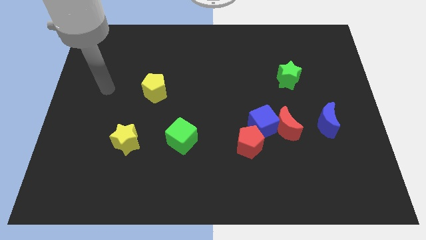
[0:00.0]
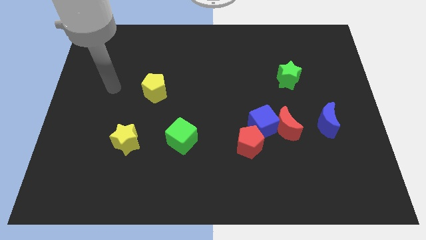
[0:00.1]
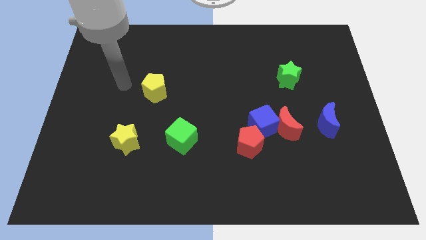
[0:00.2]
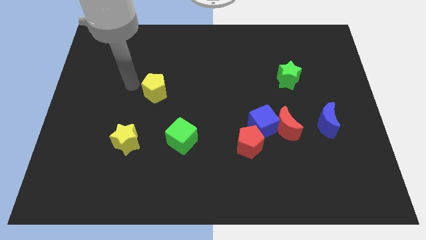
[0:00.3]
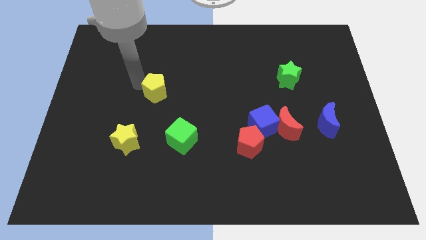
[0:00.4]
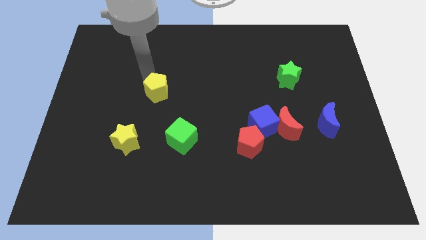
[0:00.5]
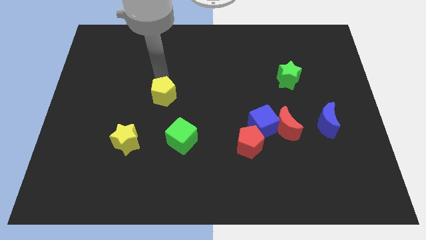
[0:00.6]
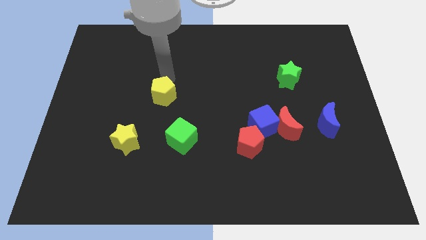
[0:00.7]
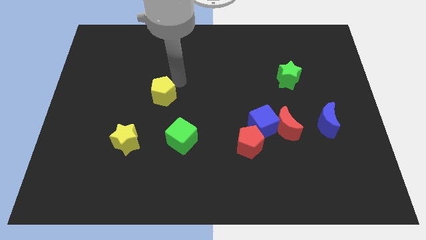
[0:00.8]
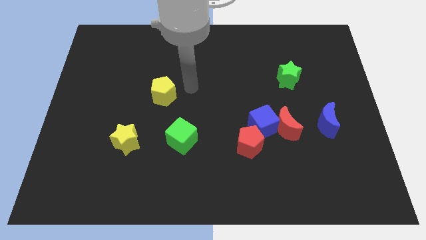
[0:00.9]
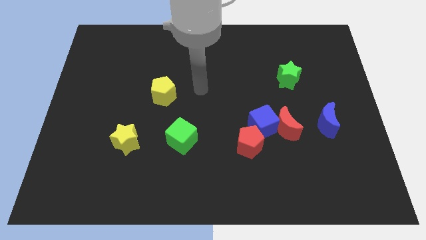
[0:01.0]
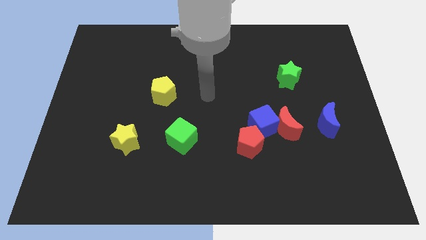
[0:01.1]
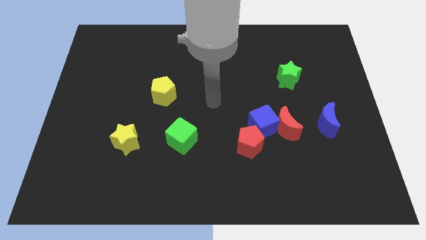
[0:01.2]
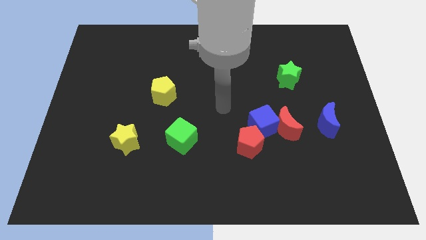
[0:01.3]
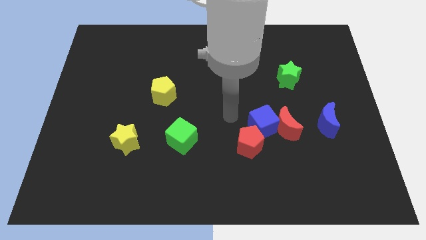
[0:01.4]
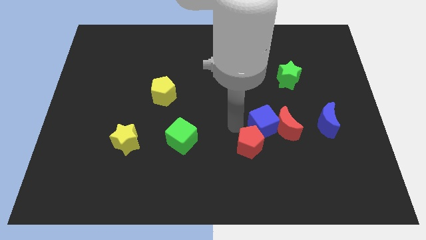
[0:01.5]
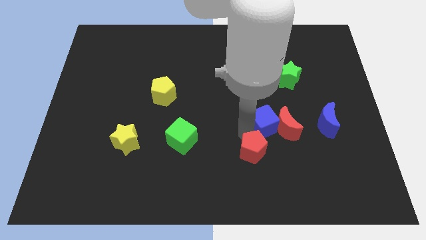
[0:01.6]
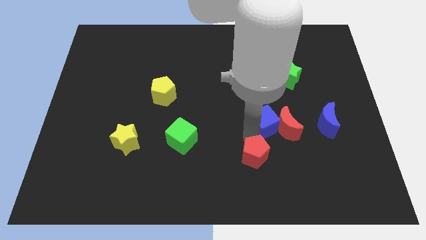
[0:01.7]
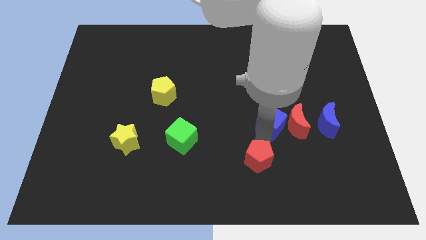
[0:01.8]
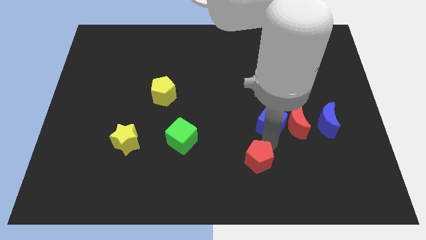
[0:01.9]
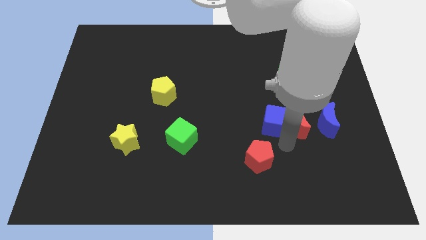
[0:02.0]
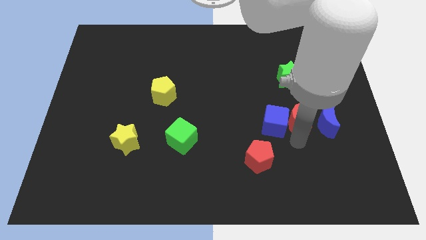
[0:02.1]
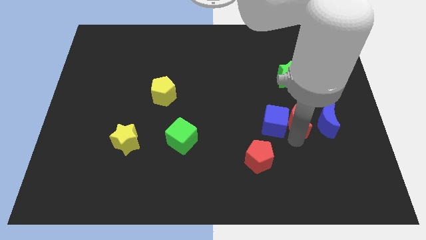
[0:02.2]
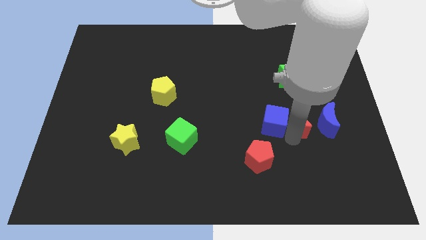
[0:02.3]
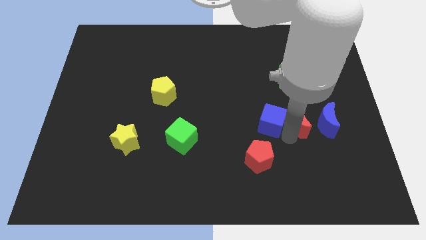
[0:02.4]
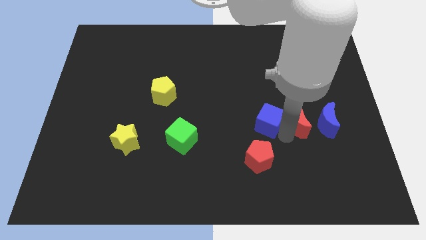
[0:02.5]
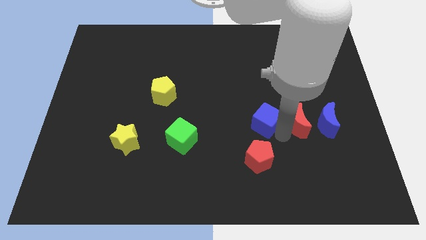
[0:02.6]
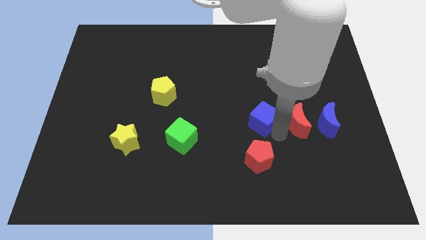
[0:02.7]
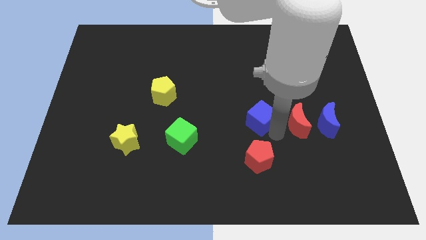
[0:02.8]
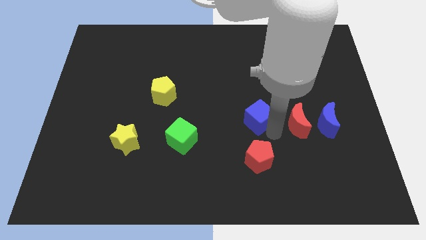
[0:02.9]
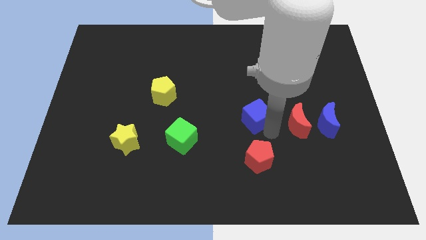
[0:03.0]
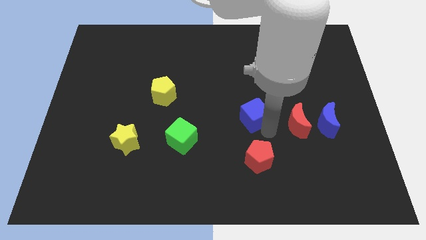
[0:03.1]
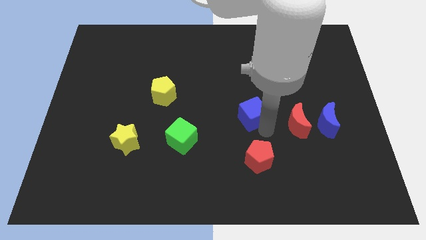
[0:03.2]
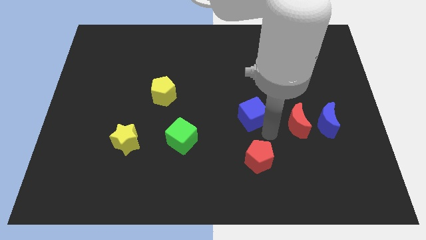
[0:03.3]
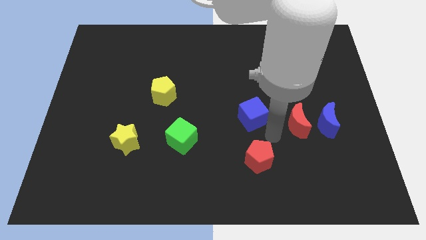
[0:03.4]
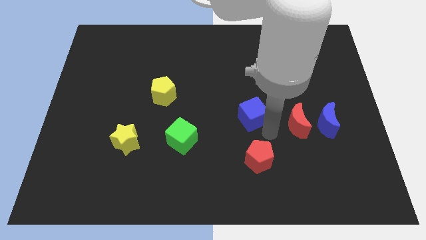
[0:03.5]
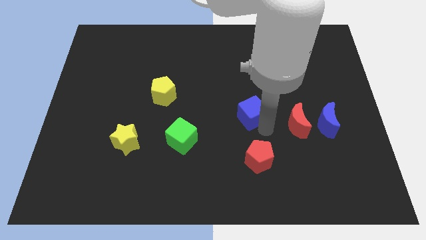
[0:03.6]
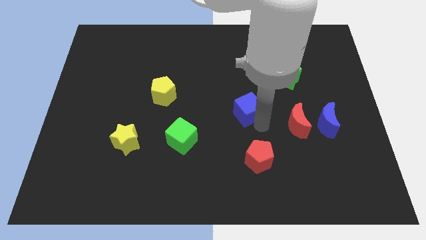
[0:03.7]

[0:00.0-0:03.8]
move the blue cube away from the red moon and red pentagon

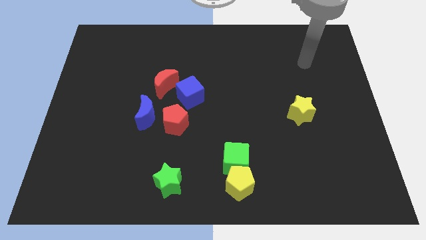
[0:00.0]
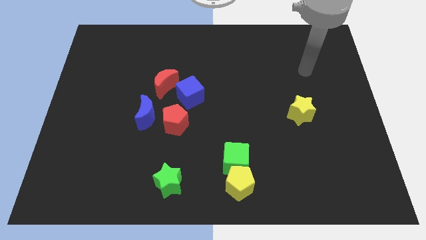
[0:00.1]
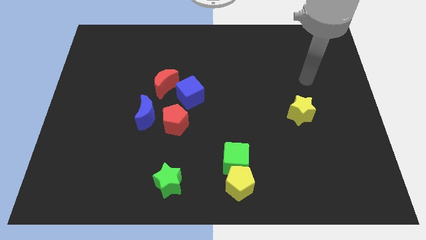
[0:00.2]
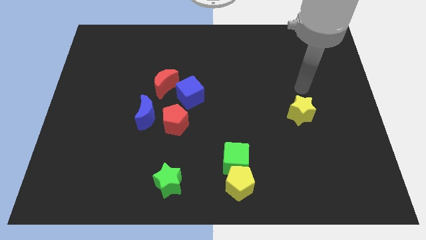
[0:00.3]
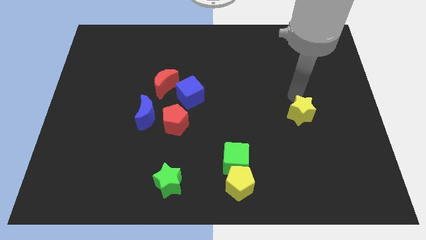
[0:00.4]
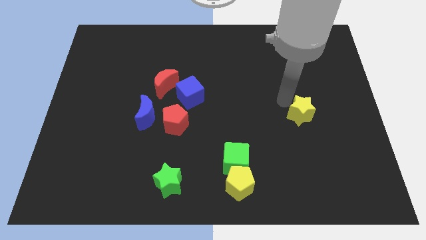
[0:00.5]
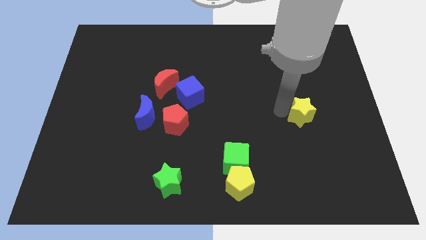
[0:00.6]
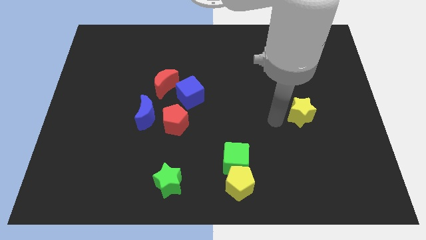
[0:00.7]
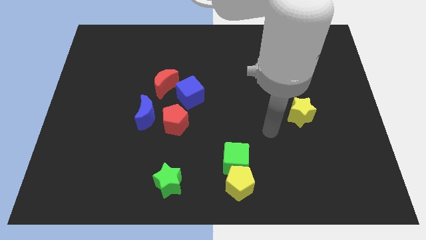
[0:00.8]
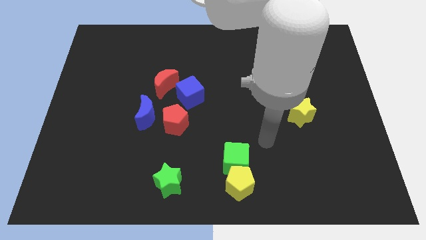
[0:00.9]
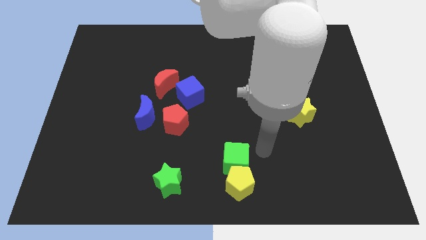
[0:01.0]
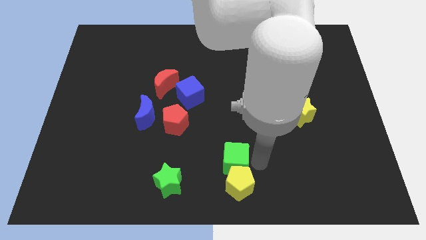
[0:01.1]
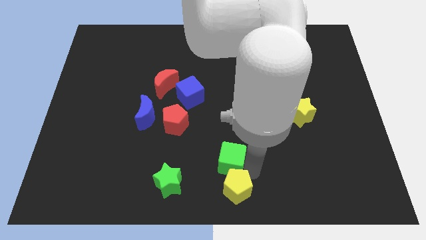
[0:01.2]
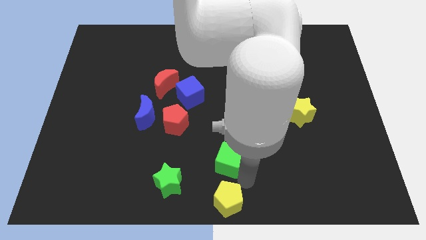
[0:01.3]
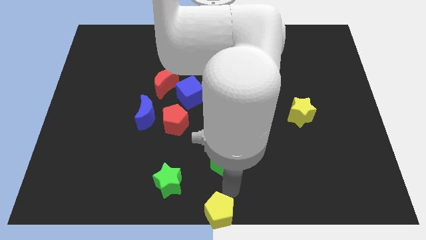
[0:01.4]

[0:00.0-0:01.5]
pull the green cube apart from the yellow pentagon

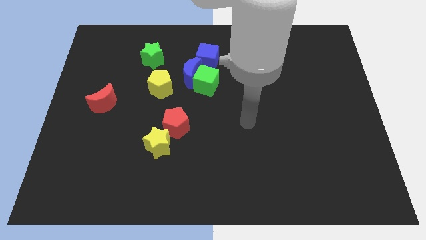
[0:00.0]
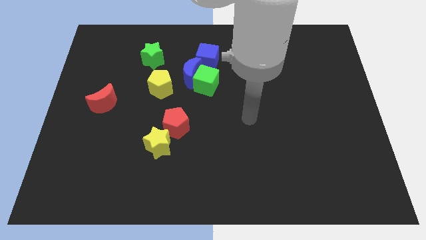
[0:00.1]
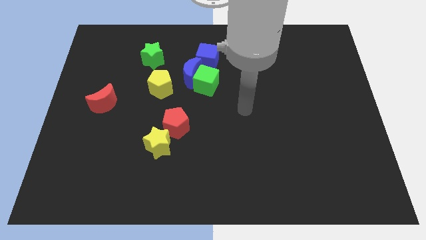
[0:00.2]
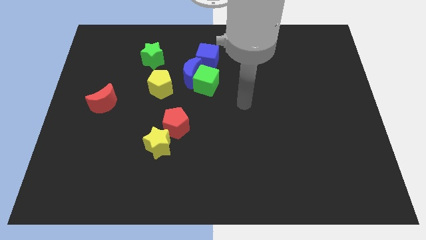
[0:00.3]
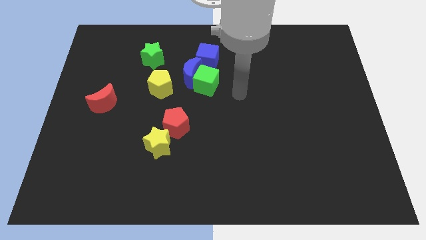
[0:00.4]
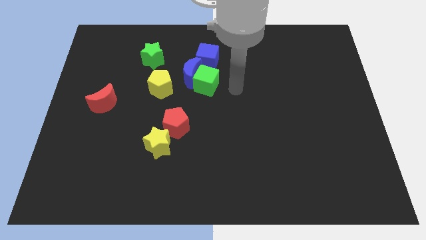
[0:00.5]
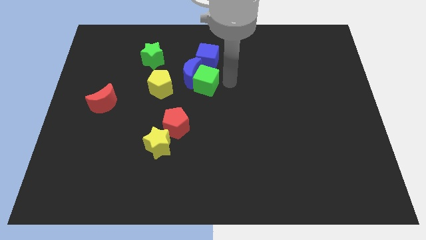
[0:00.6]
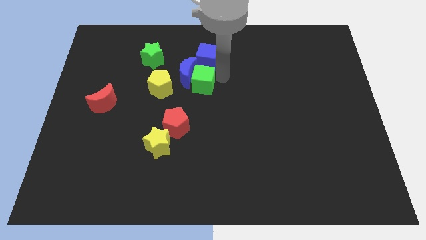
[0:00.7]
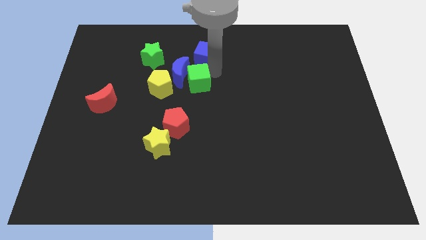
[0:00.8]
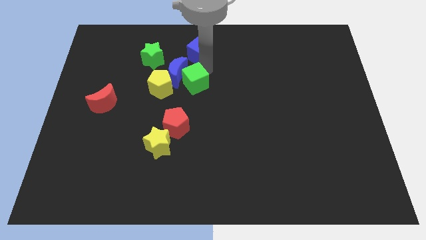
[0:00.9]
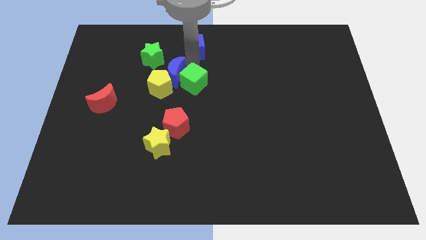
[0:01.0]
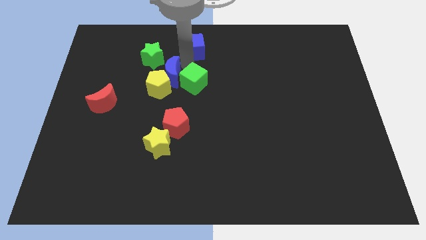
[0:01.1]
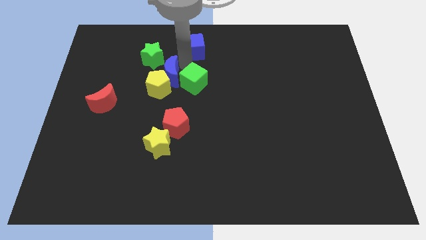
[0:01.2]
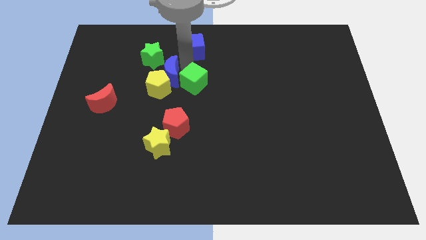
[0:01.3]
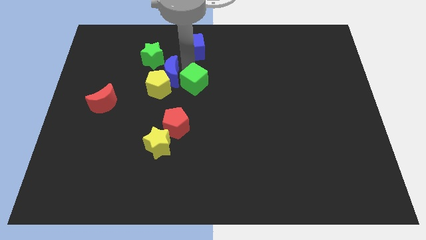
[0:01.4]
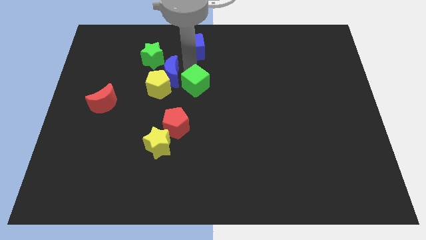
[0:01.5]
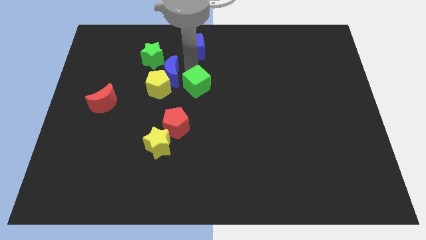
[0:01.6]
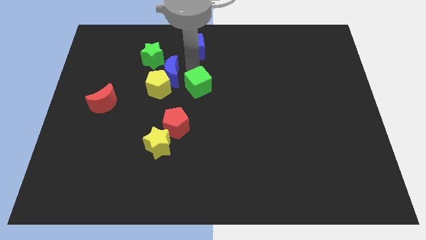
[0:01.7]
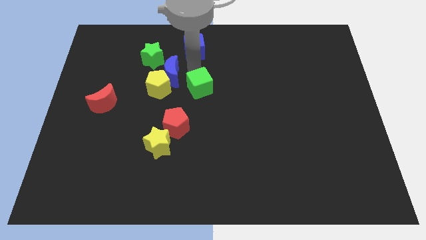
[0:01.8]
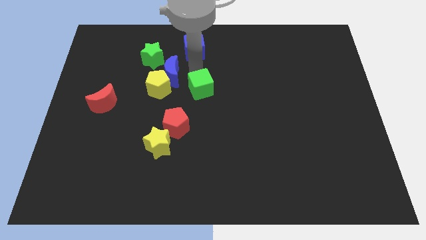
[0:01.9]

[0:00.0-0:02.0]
pull the green cube apart from the blue moon and blue cube

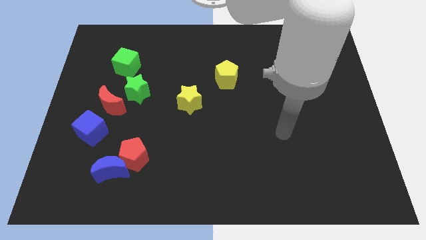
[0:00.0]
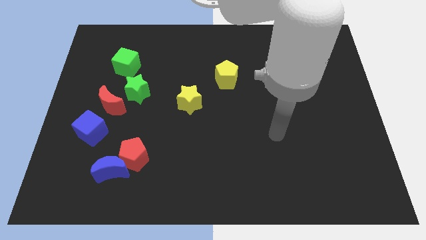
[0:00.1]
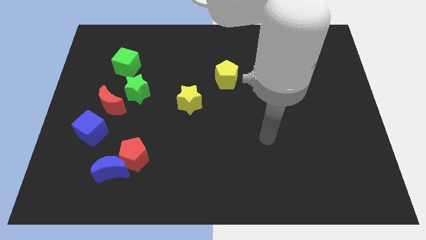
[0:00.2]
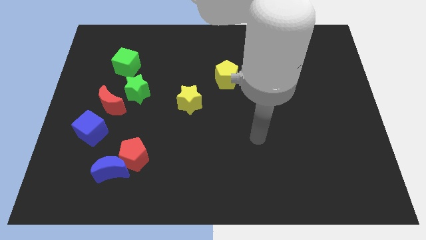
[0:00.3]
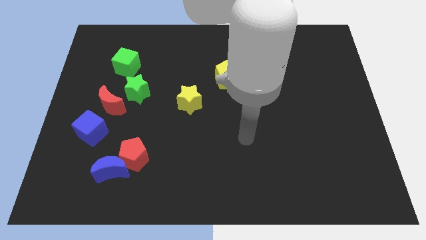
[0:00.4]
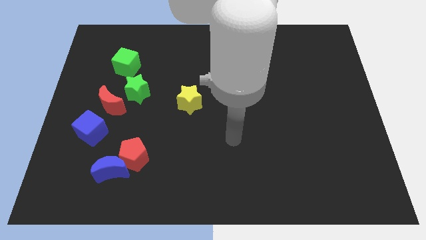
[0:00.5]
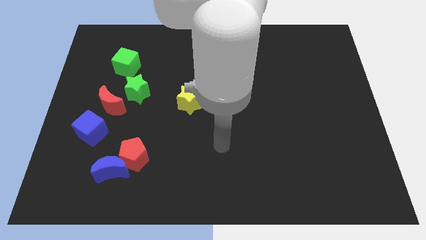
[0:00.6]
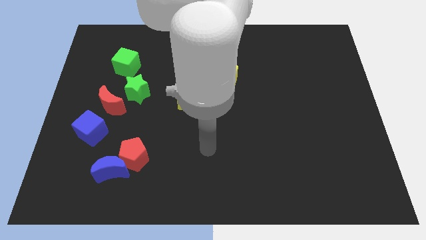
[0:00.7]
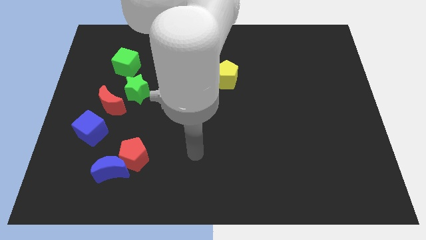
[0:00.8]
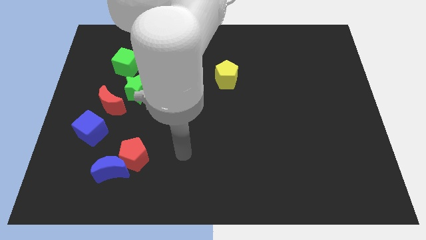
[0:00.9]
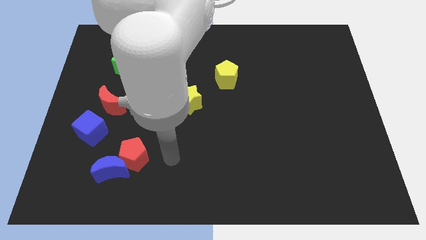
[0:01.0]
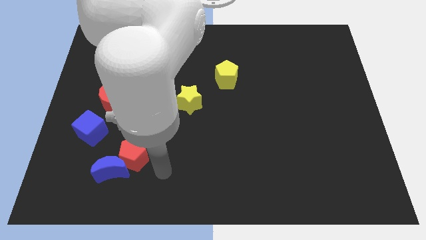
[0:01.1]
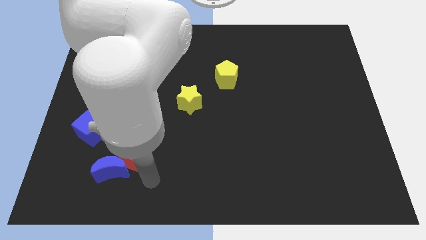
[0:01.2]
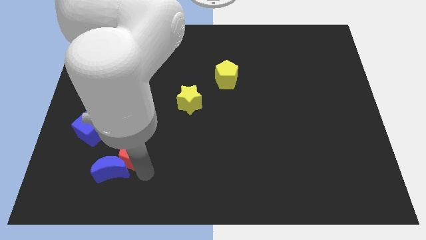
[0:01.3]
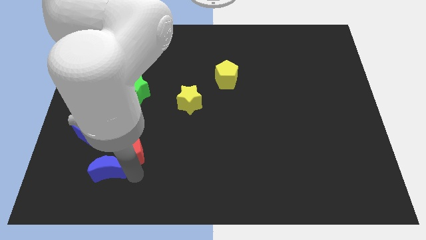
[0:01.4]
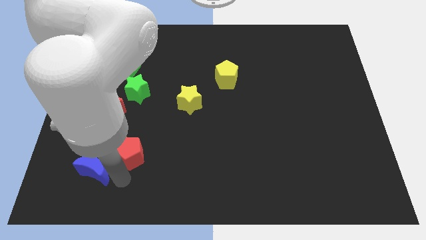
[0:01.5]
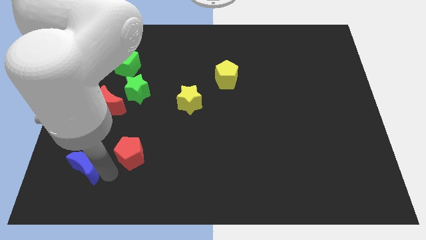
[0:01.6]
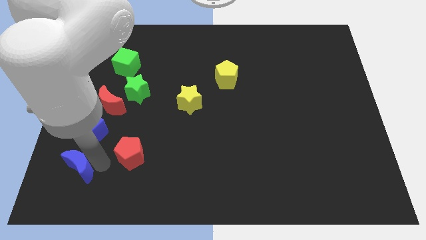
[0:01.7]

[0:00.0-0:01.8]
pull the red pentagon apart from the blue moon

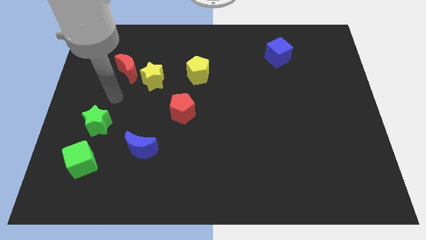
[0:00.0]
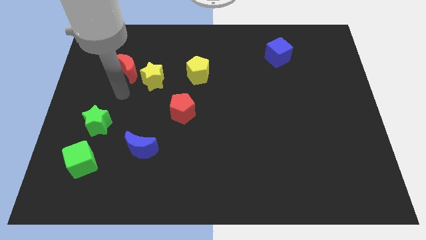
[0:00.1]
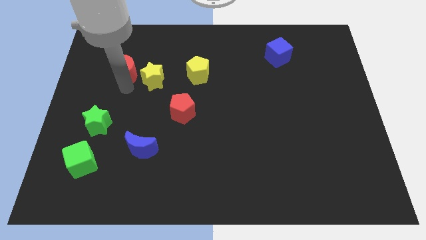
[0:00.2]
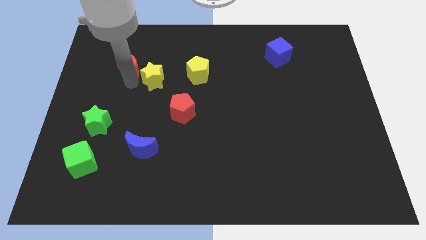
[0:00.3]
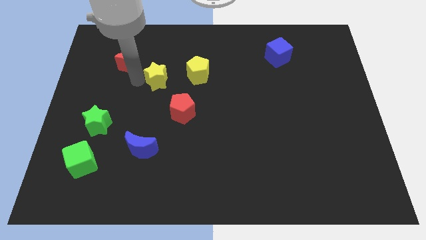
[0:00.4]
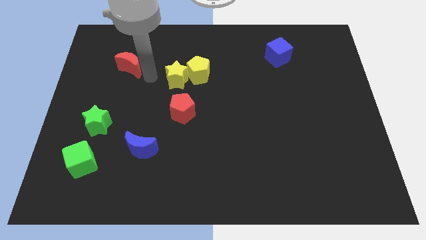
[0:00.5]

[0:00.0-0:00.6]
separate the red moon from the yellow star
